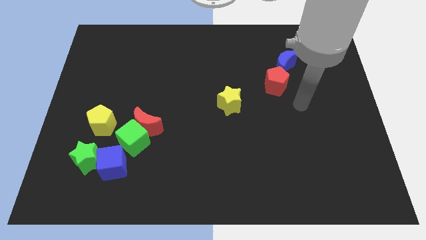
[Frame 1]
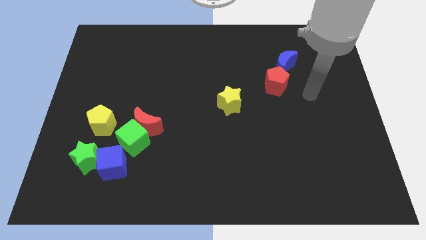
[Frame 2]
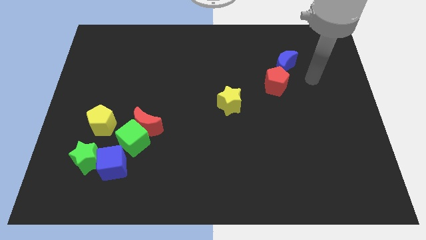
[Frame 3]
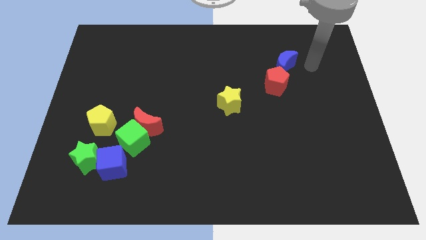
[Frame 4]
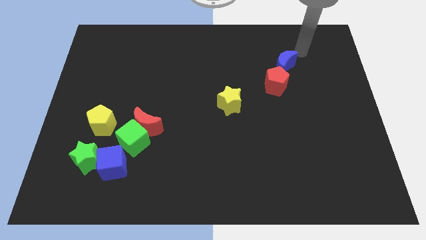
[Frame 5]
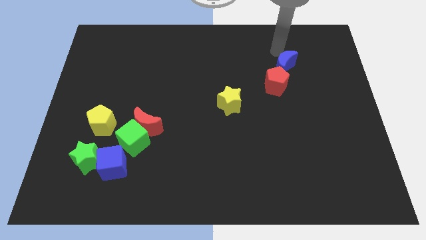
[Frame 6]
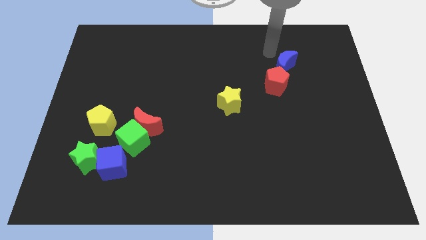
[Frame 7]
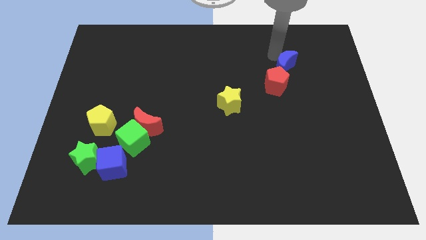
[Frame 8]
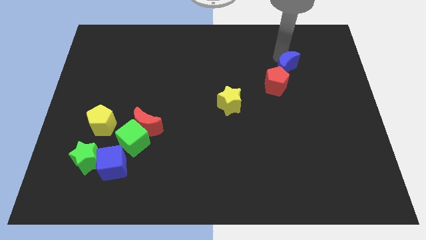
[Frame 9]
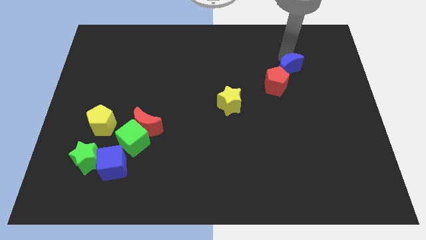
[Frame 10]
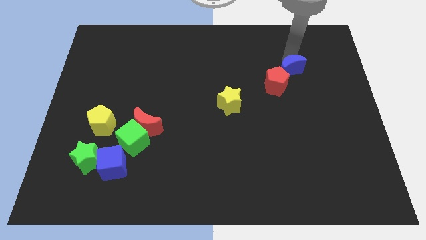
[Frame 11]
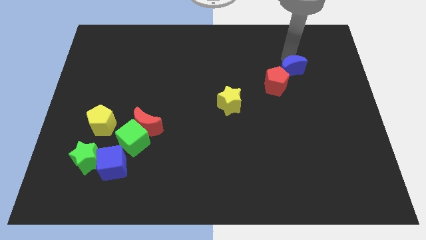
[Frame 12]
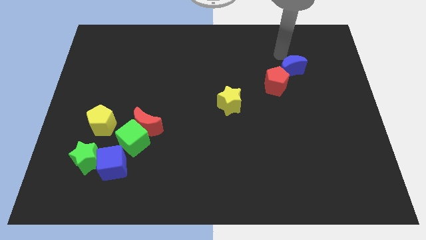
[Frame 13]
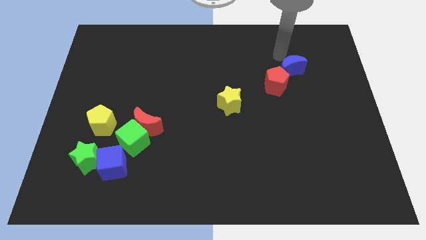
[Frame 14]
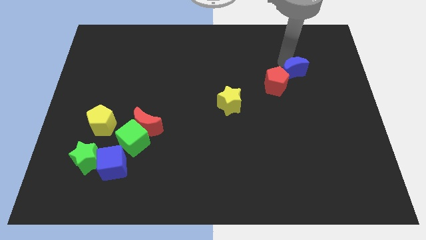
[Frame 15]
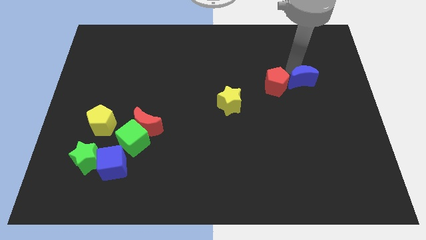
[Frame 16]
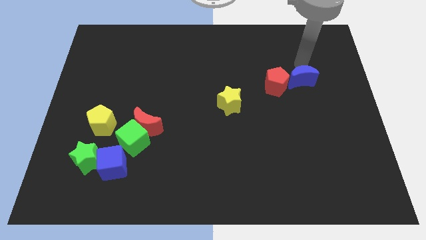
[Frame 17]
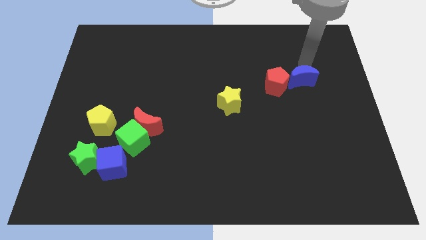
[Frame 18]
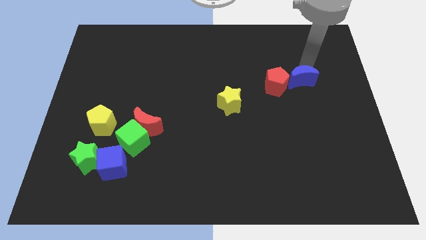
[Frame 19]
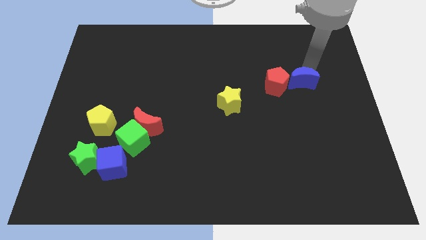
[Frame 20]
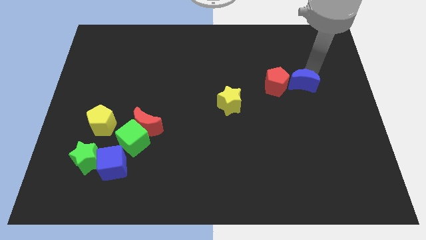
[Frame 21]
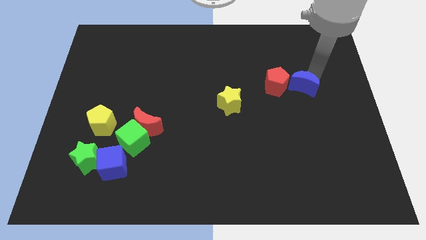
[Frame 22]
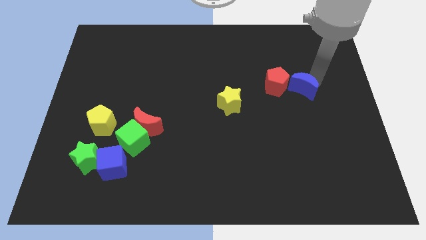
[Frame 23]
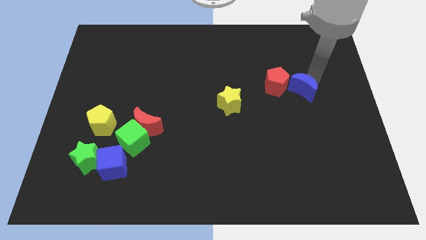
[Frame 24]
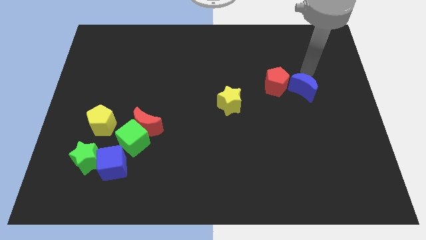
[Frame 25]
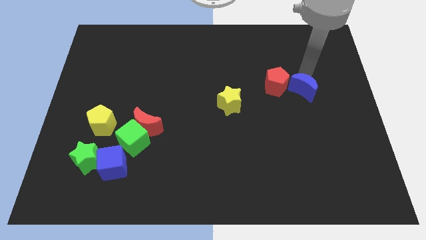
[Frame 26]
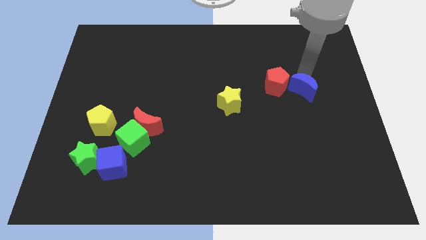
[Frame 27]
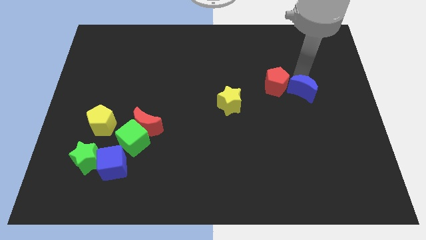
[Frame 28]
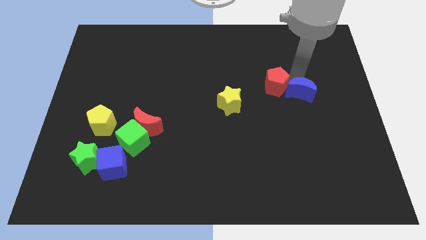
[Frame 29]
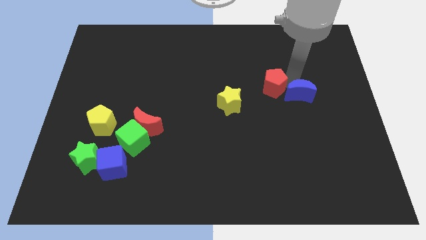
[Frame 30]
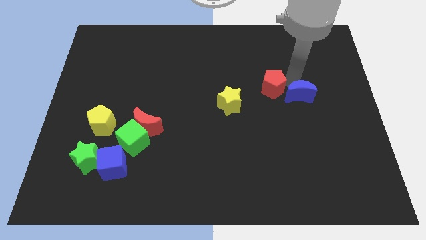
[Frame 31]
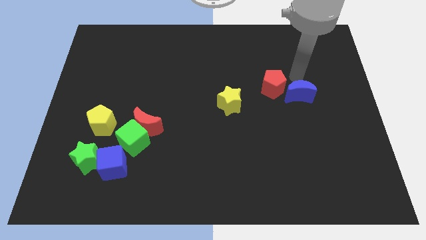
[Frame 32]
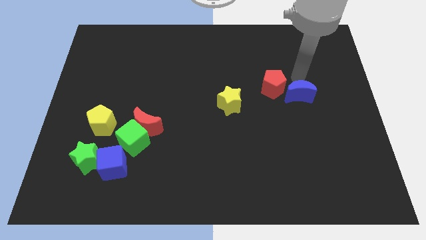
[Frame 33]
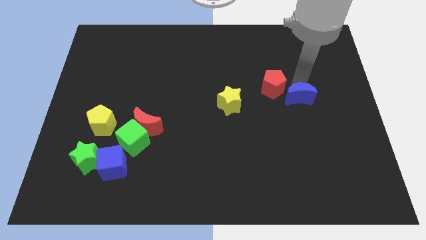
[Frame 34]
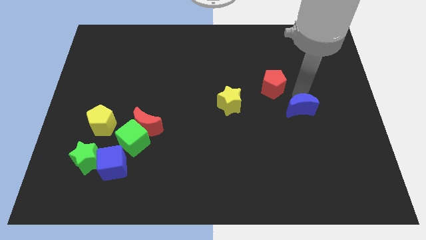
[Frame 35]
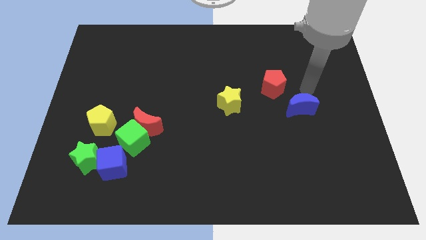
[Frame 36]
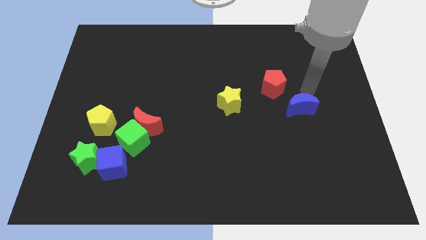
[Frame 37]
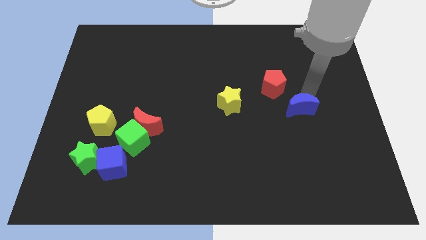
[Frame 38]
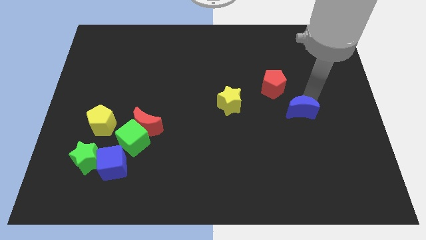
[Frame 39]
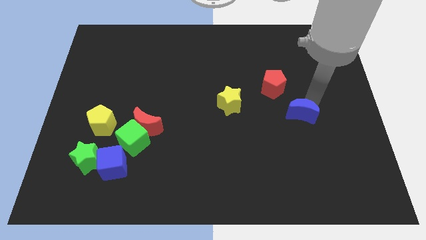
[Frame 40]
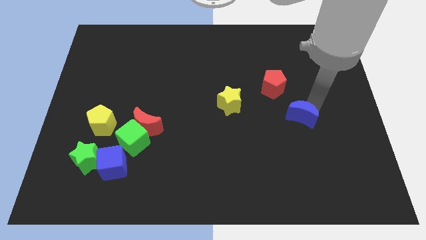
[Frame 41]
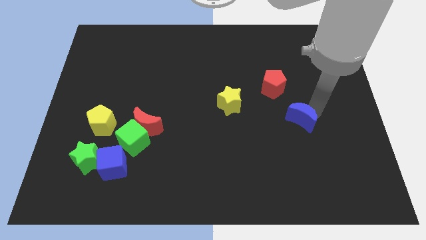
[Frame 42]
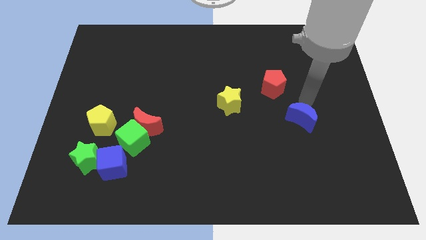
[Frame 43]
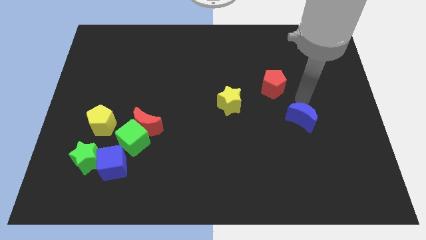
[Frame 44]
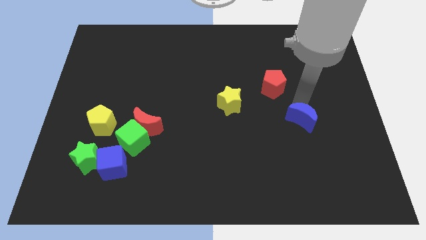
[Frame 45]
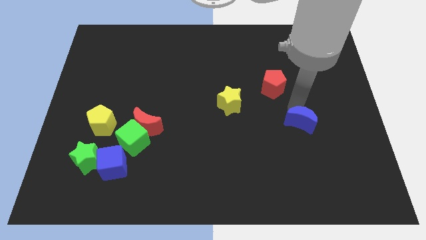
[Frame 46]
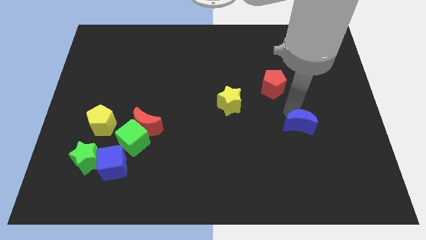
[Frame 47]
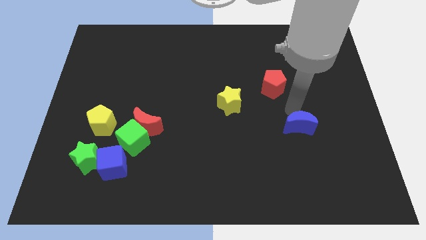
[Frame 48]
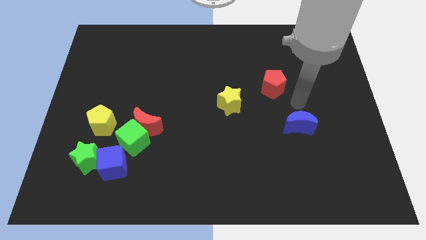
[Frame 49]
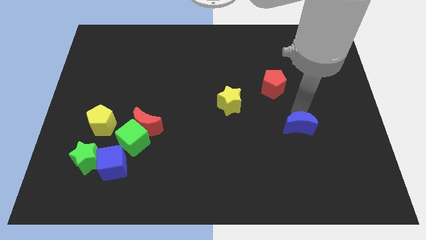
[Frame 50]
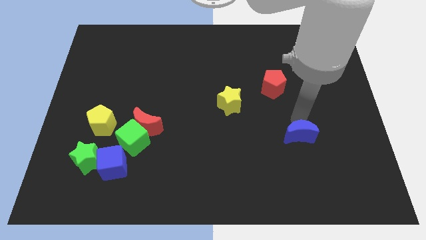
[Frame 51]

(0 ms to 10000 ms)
move the blue moon downwards

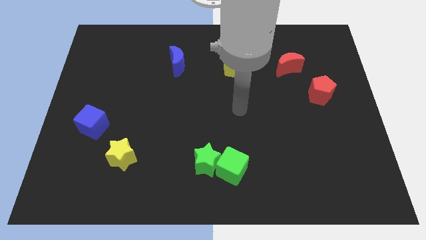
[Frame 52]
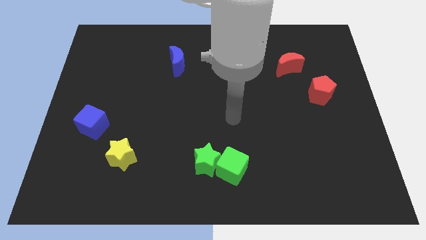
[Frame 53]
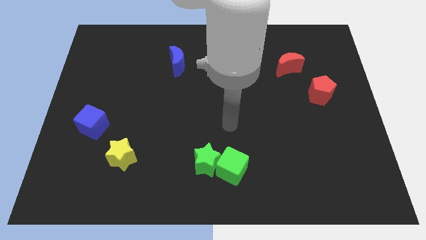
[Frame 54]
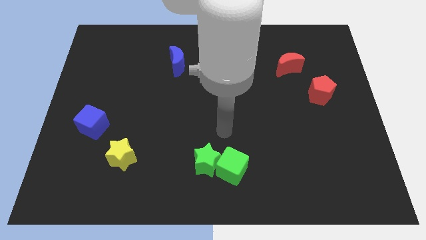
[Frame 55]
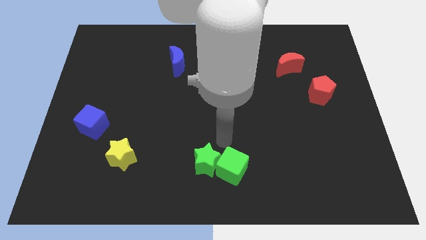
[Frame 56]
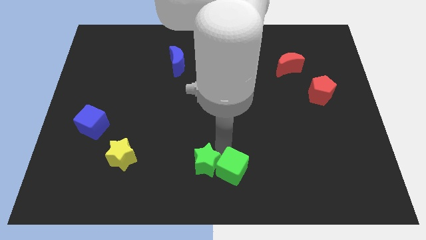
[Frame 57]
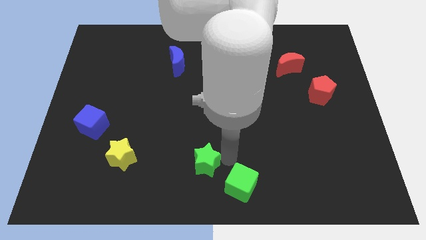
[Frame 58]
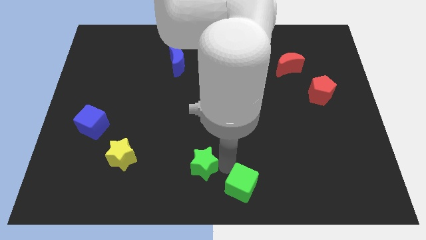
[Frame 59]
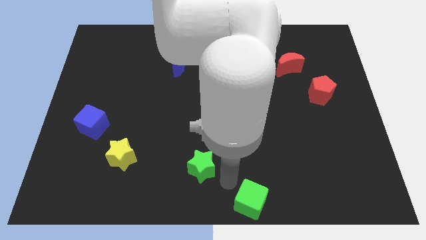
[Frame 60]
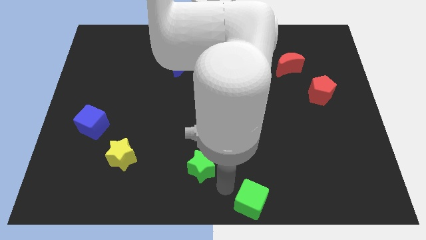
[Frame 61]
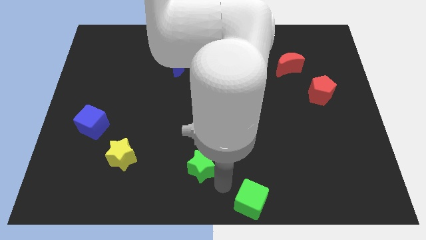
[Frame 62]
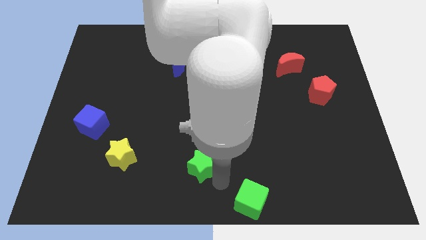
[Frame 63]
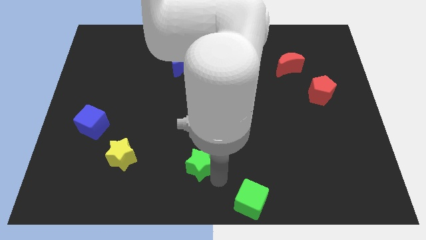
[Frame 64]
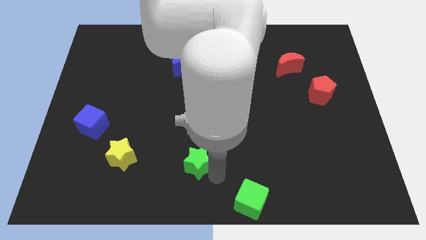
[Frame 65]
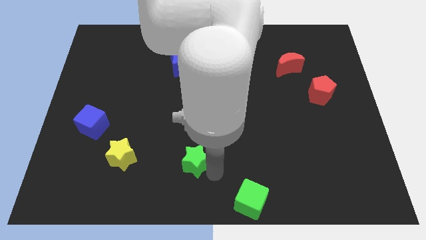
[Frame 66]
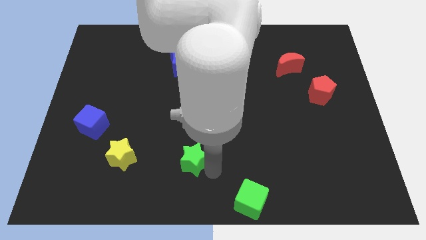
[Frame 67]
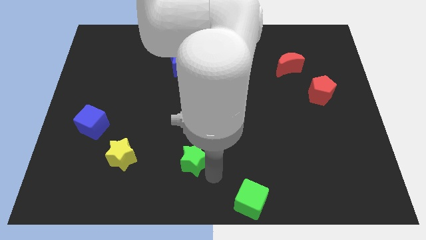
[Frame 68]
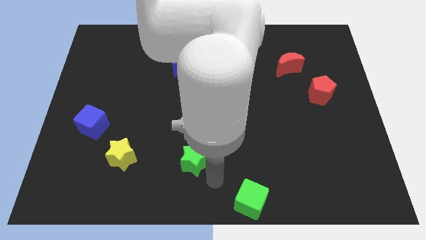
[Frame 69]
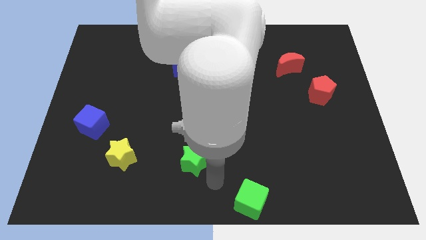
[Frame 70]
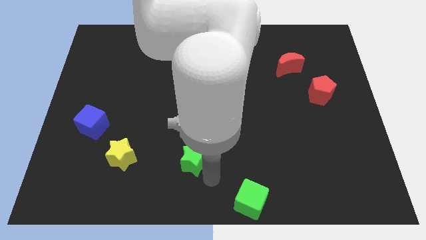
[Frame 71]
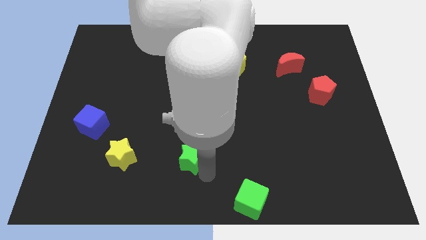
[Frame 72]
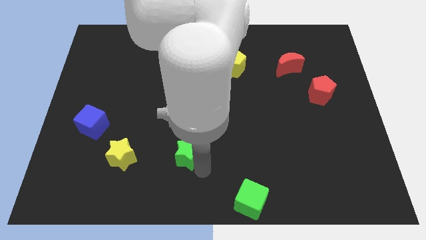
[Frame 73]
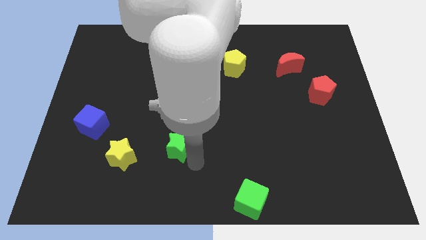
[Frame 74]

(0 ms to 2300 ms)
slide the green star a bit upwards and to the left diagonally

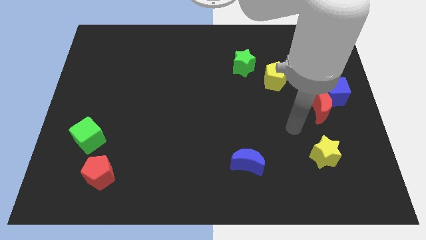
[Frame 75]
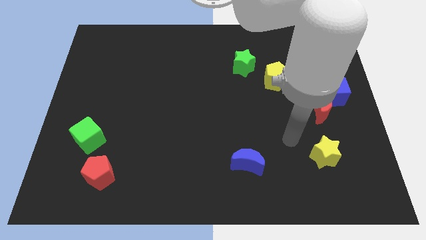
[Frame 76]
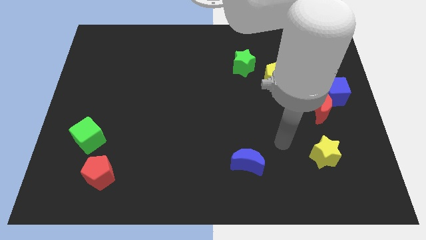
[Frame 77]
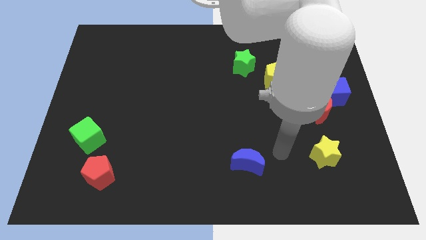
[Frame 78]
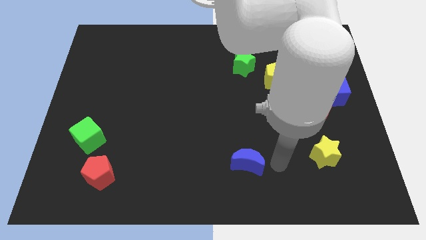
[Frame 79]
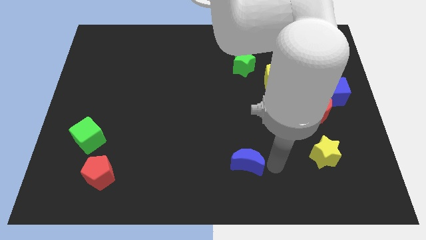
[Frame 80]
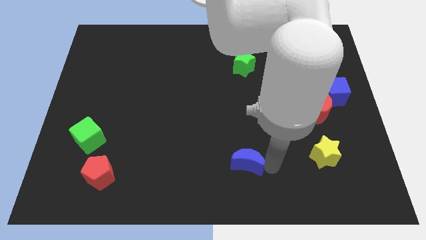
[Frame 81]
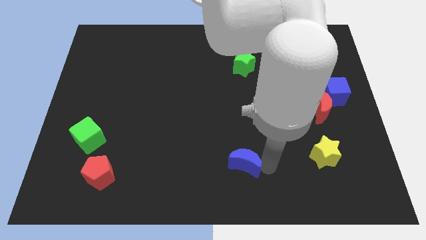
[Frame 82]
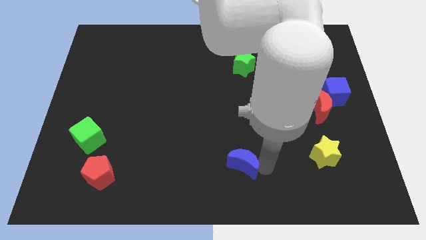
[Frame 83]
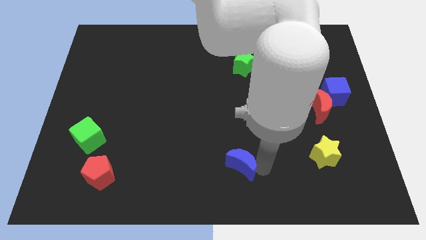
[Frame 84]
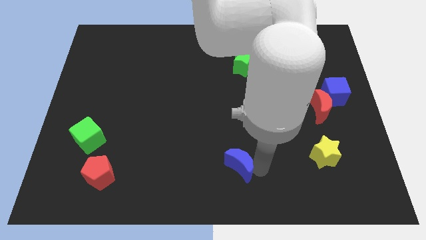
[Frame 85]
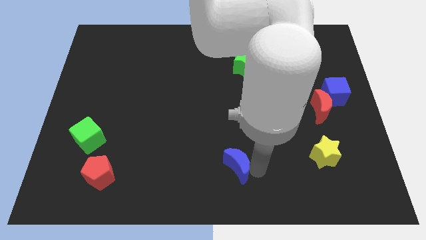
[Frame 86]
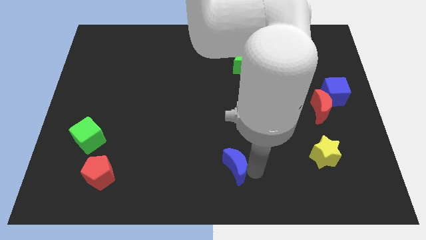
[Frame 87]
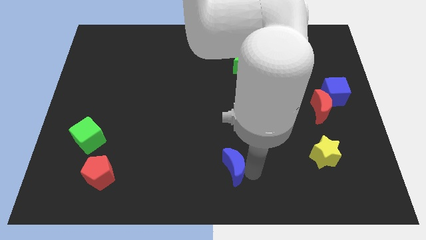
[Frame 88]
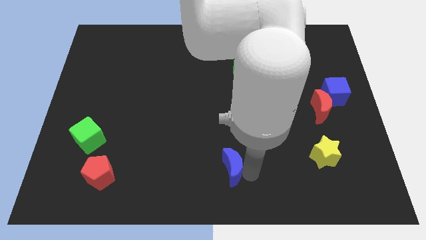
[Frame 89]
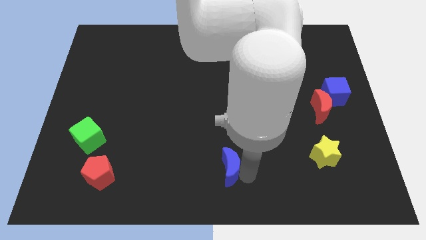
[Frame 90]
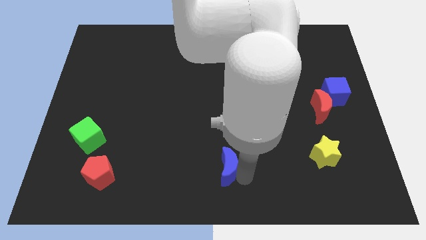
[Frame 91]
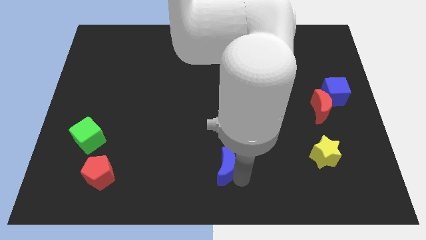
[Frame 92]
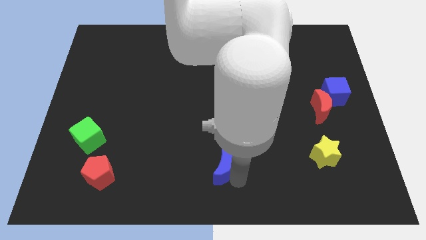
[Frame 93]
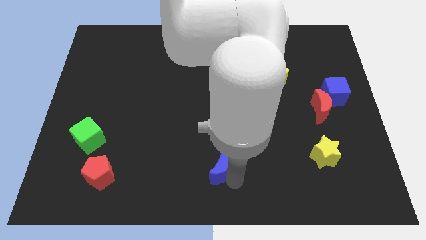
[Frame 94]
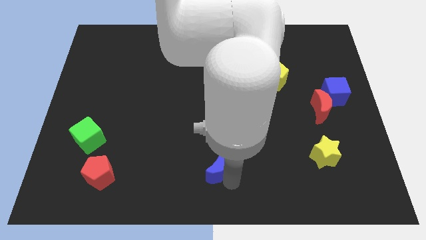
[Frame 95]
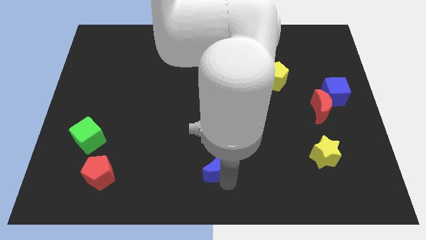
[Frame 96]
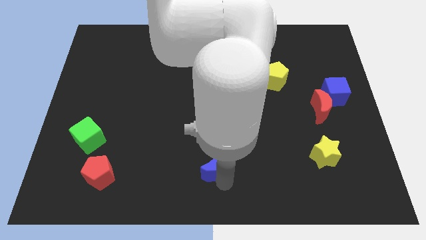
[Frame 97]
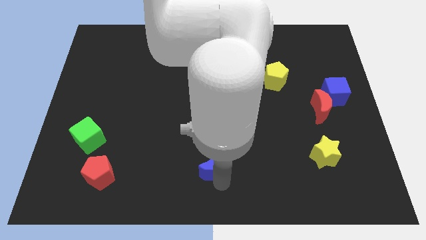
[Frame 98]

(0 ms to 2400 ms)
slide the blue moon a bit to the left
